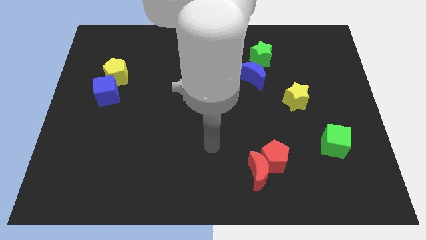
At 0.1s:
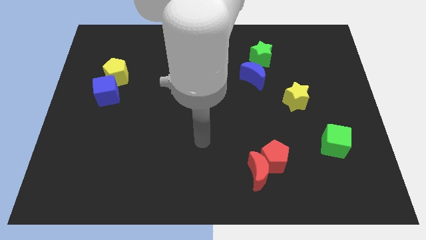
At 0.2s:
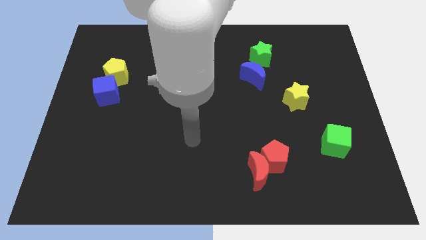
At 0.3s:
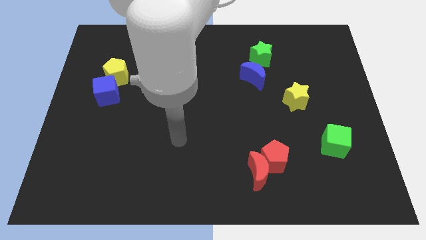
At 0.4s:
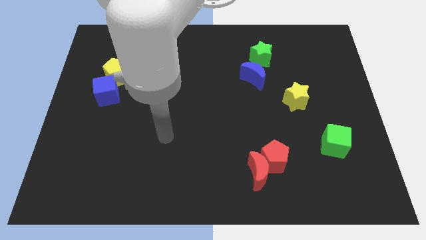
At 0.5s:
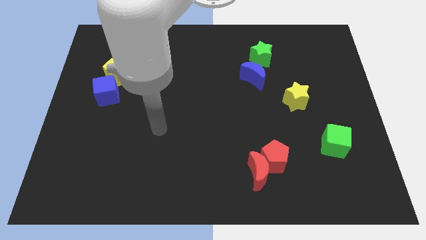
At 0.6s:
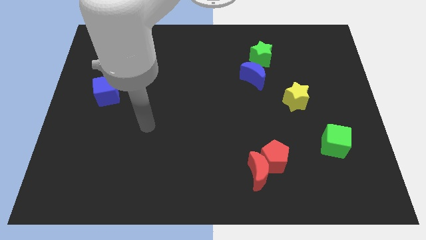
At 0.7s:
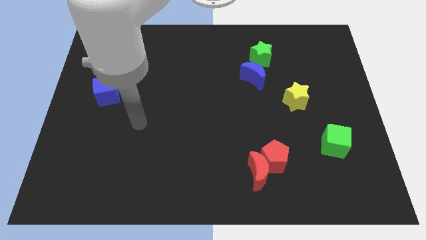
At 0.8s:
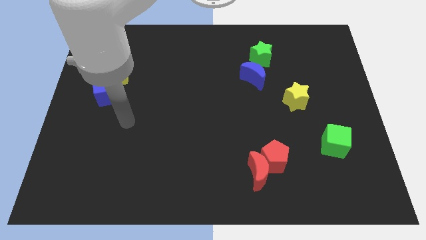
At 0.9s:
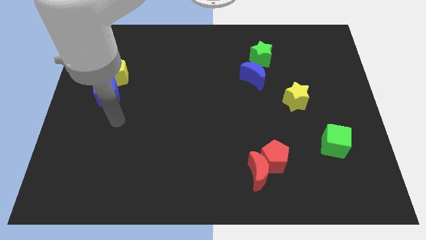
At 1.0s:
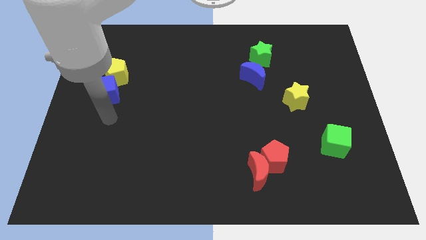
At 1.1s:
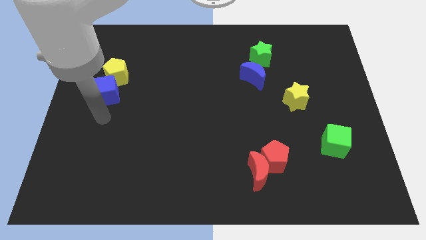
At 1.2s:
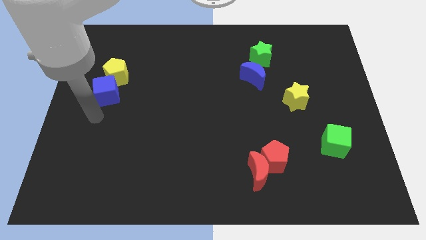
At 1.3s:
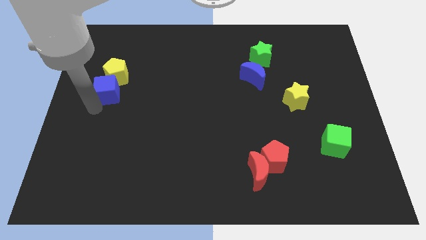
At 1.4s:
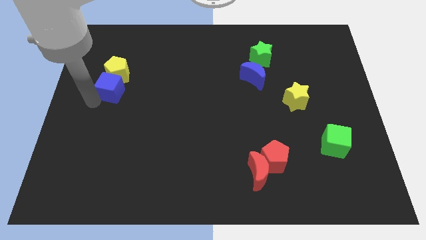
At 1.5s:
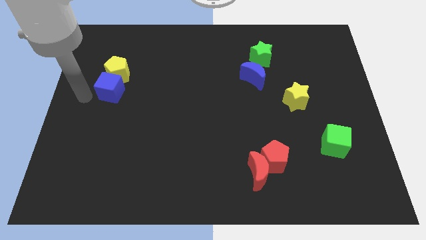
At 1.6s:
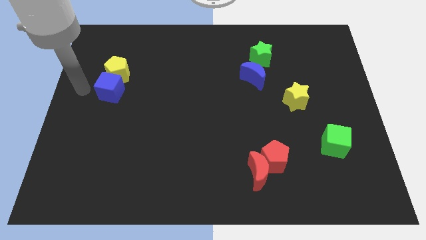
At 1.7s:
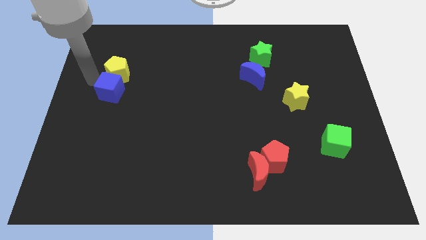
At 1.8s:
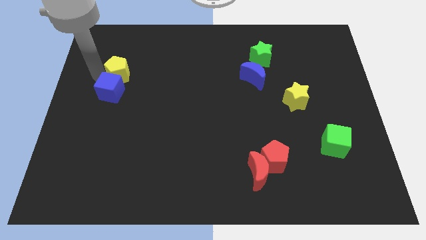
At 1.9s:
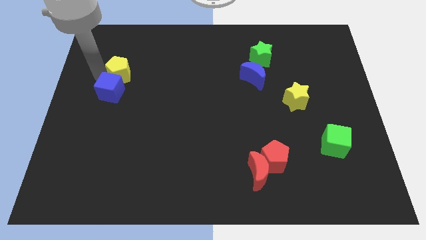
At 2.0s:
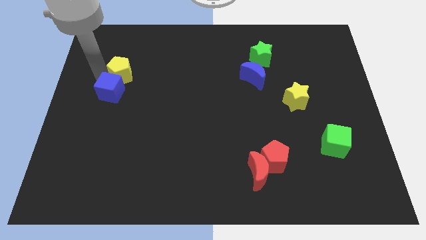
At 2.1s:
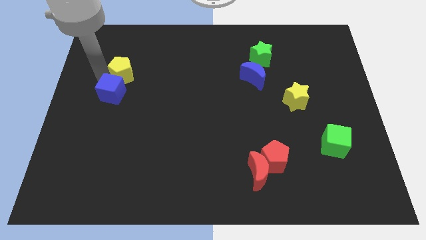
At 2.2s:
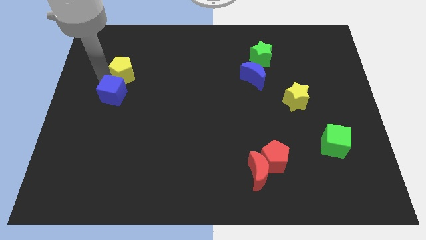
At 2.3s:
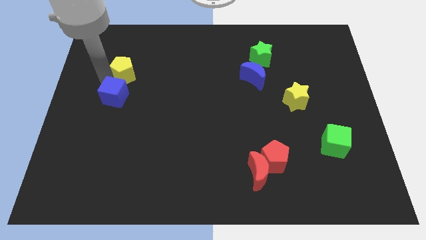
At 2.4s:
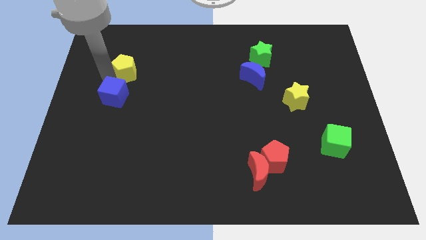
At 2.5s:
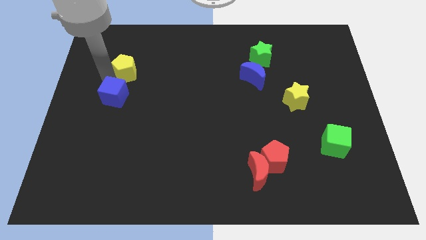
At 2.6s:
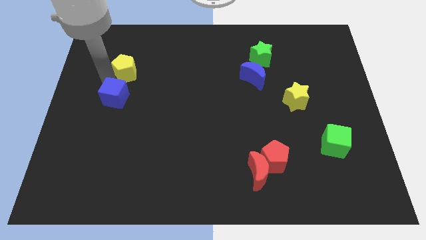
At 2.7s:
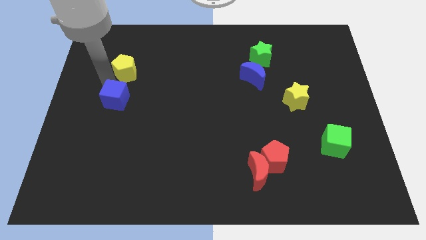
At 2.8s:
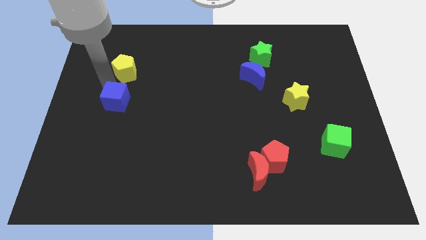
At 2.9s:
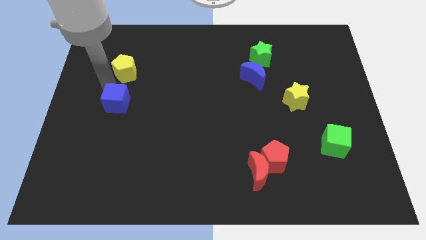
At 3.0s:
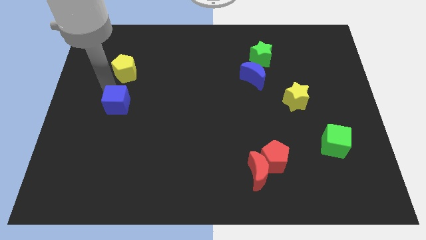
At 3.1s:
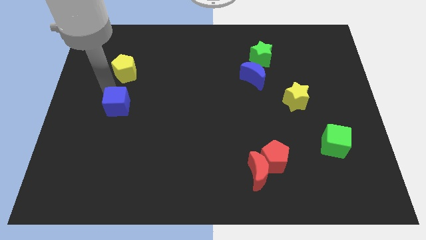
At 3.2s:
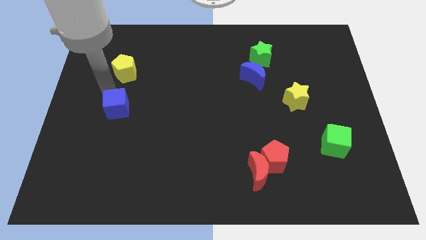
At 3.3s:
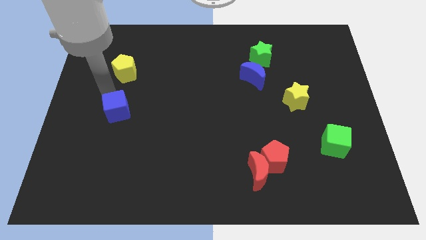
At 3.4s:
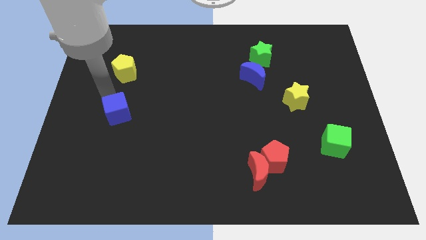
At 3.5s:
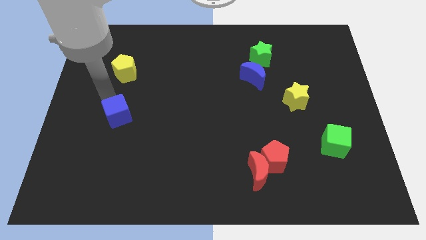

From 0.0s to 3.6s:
slightly push the blue cube diagonally down and to the right

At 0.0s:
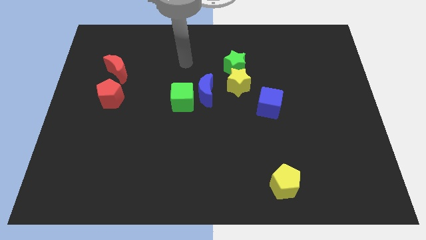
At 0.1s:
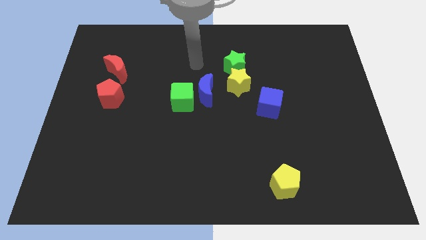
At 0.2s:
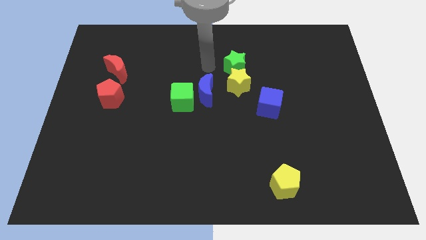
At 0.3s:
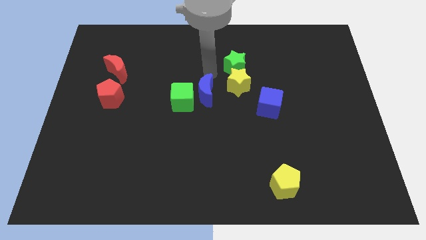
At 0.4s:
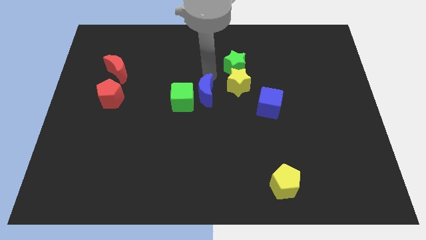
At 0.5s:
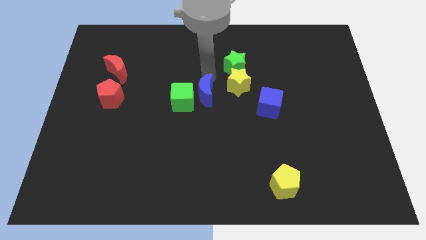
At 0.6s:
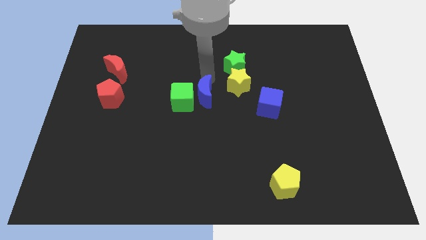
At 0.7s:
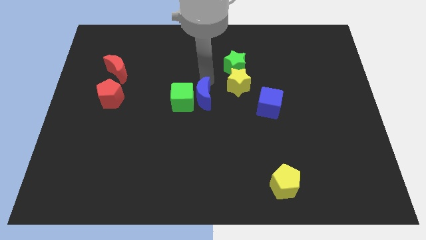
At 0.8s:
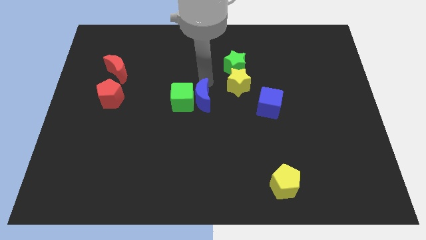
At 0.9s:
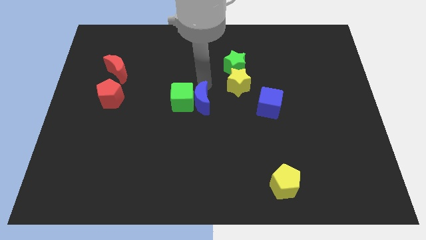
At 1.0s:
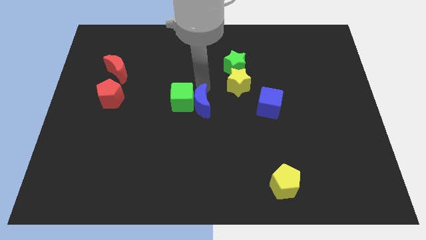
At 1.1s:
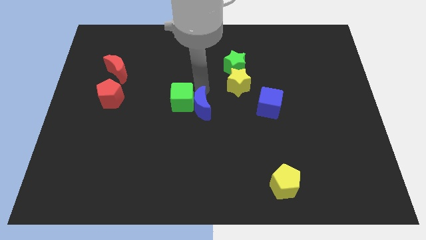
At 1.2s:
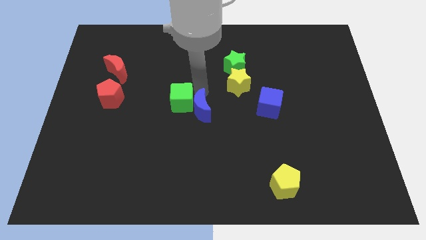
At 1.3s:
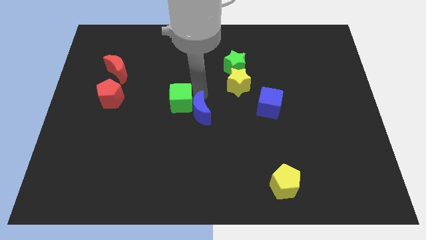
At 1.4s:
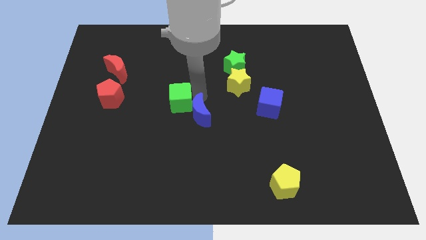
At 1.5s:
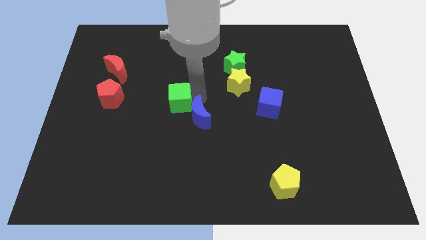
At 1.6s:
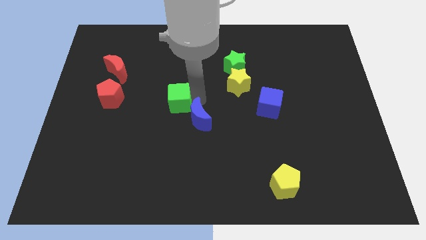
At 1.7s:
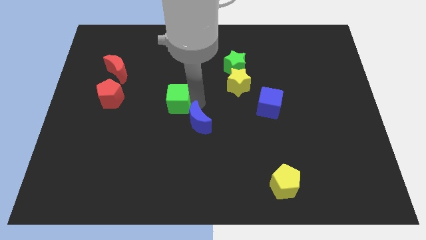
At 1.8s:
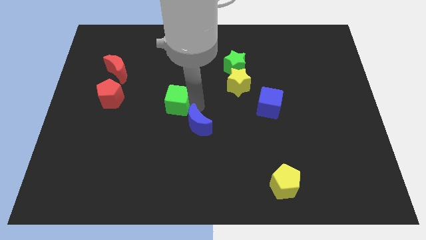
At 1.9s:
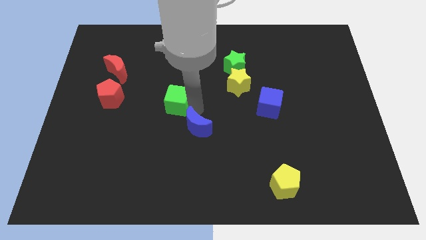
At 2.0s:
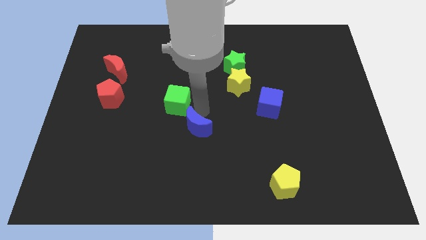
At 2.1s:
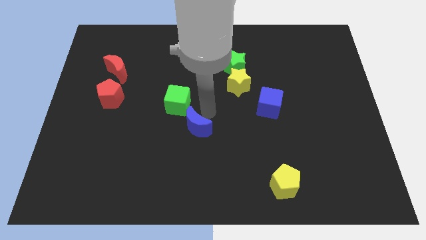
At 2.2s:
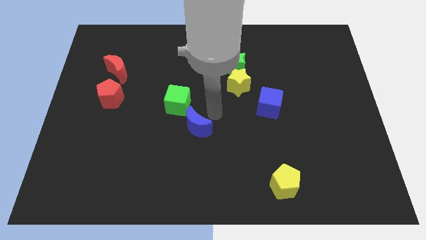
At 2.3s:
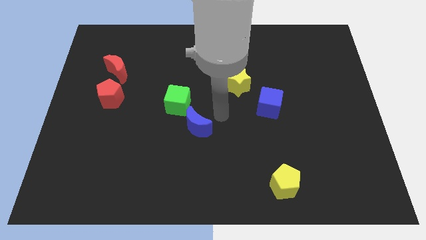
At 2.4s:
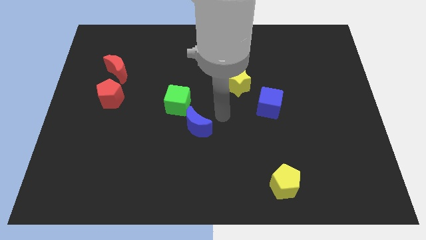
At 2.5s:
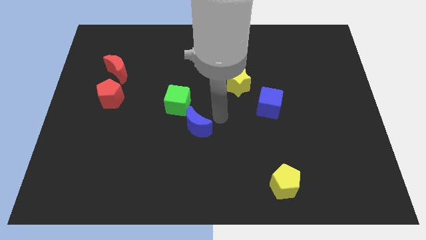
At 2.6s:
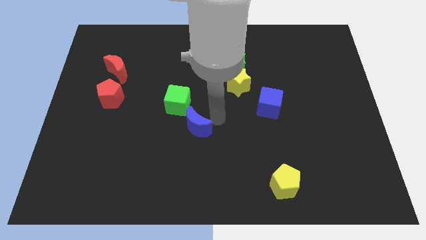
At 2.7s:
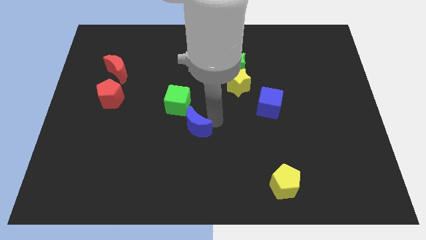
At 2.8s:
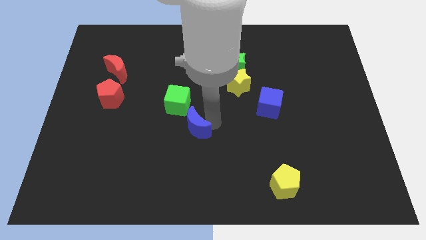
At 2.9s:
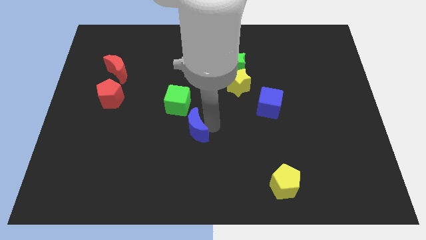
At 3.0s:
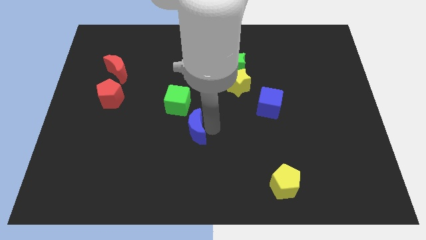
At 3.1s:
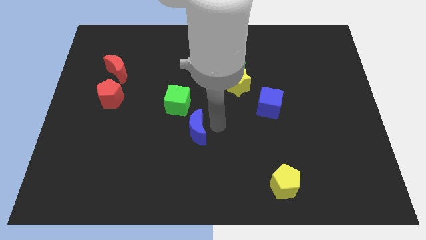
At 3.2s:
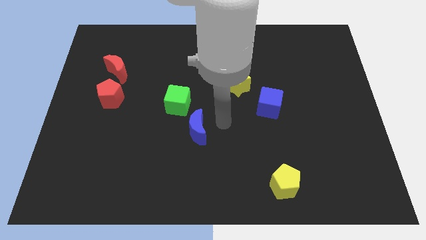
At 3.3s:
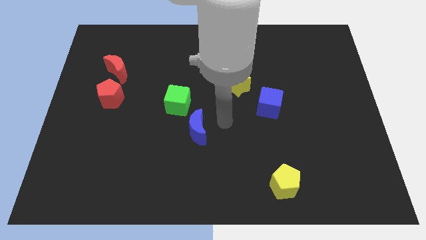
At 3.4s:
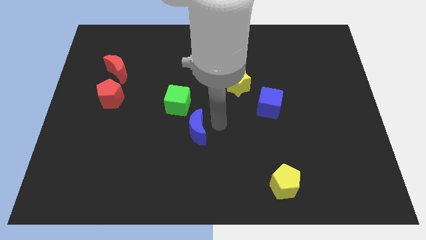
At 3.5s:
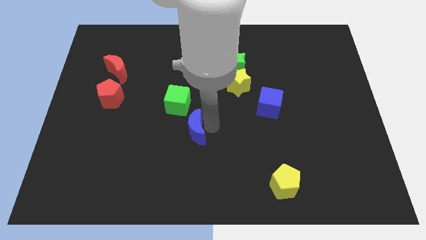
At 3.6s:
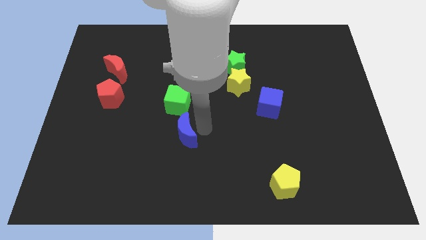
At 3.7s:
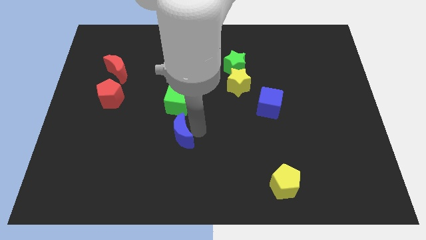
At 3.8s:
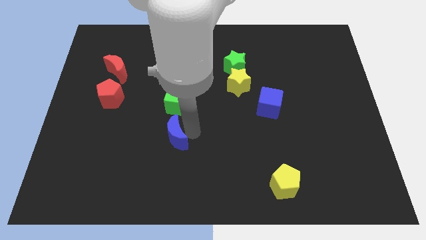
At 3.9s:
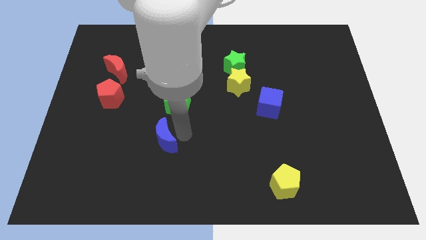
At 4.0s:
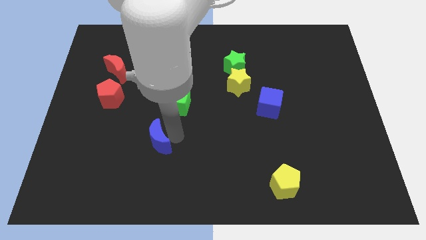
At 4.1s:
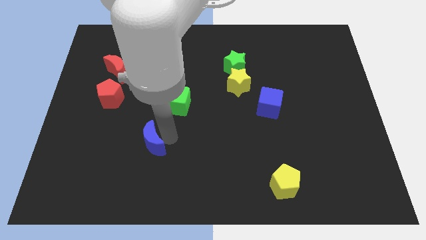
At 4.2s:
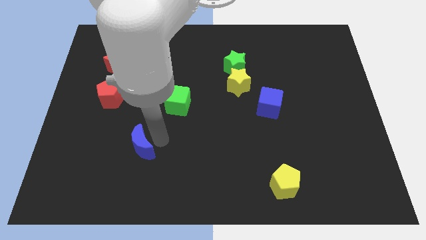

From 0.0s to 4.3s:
push the blue moon diagonally down and to the left
